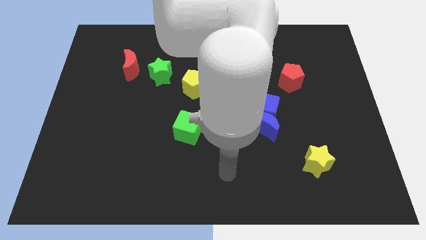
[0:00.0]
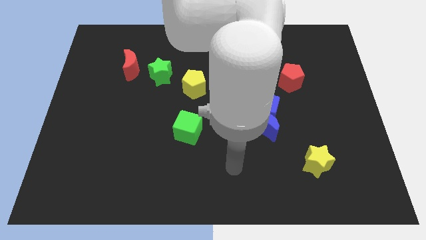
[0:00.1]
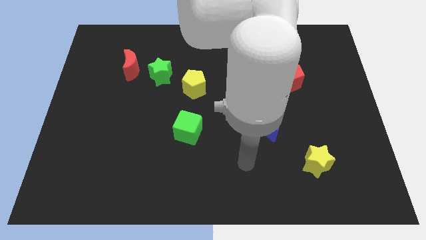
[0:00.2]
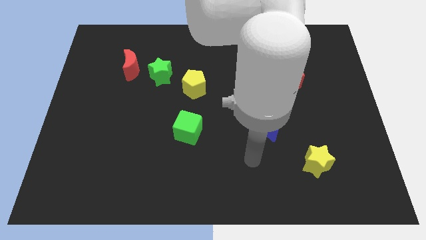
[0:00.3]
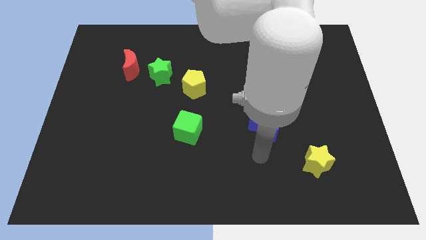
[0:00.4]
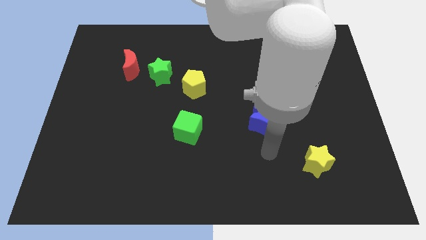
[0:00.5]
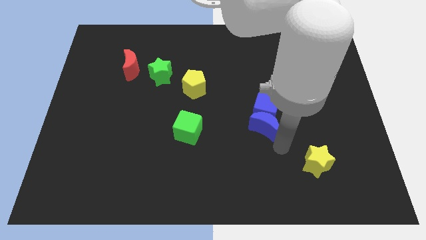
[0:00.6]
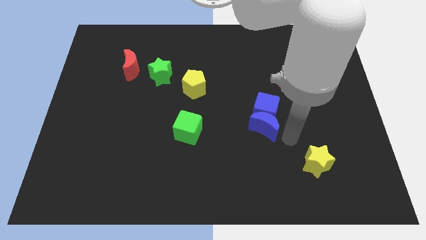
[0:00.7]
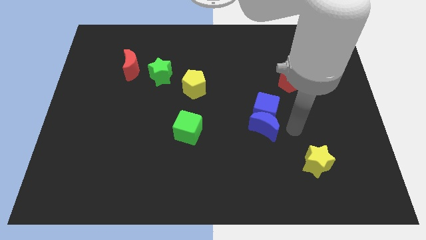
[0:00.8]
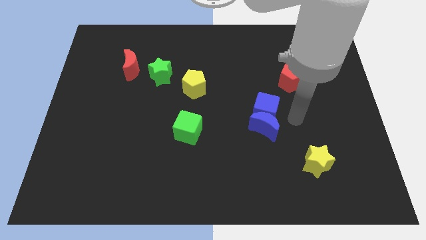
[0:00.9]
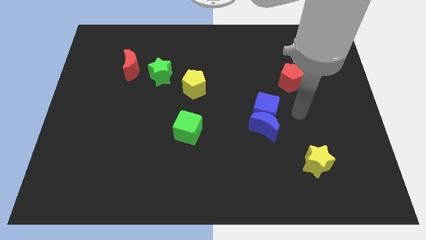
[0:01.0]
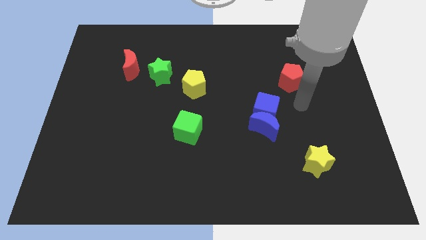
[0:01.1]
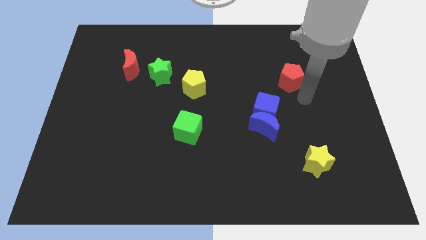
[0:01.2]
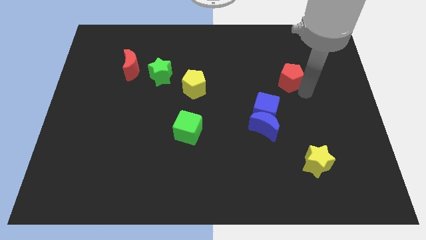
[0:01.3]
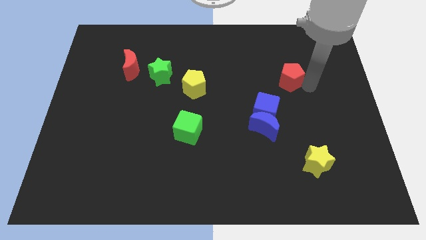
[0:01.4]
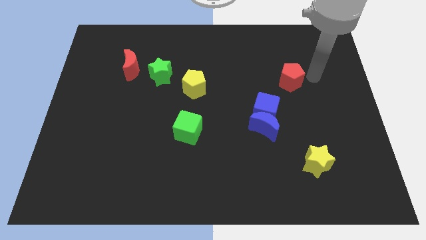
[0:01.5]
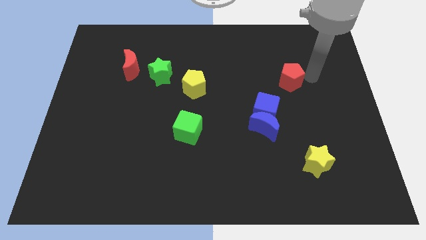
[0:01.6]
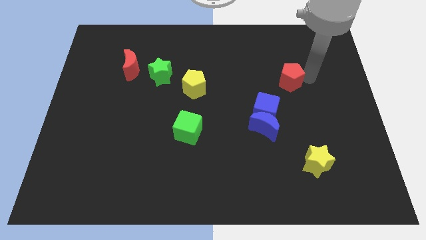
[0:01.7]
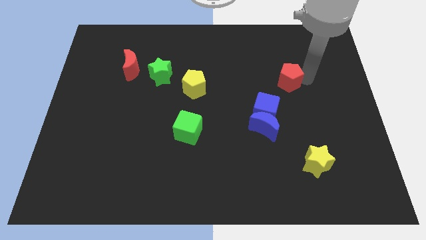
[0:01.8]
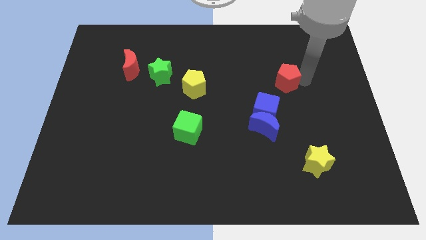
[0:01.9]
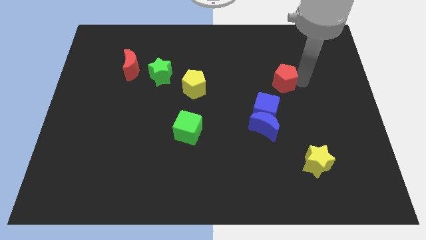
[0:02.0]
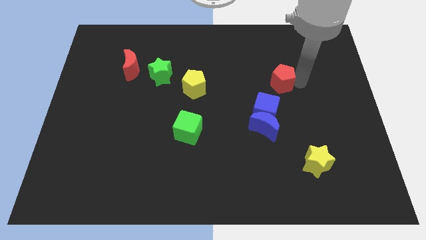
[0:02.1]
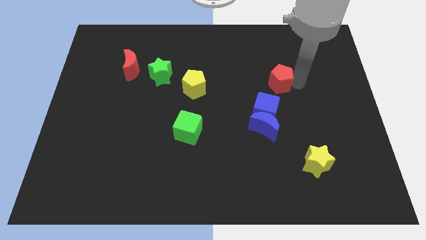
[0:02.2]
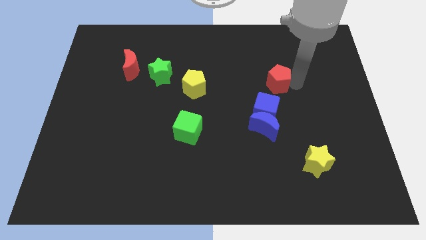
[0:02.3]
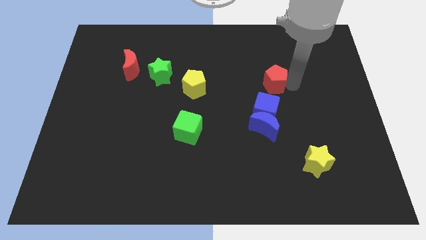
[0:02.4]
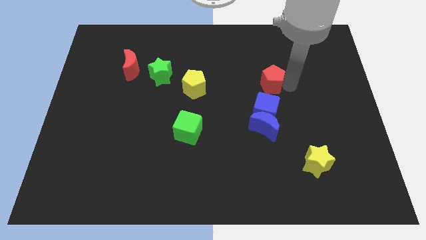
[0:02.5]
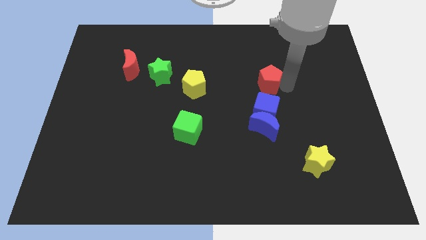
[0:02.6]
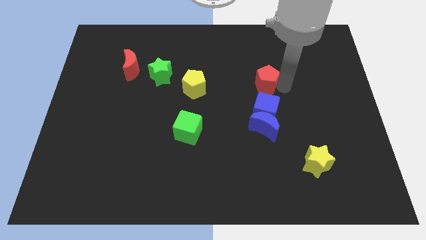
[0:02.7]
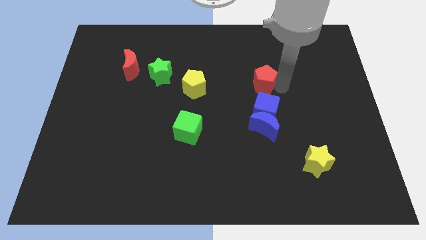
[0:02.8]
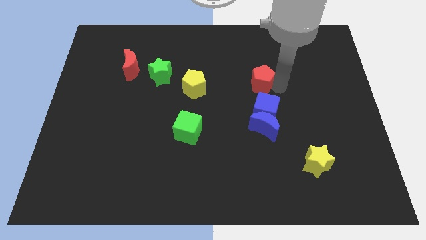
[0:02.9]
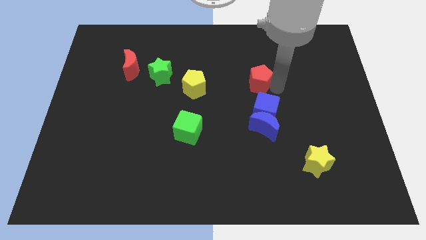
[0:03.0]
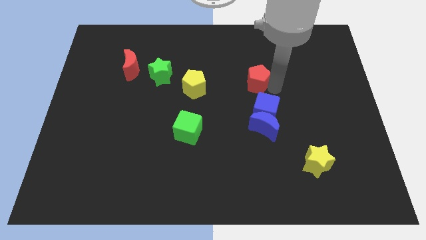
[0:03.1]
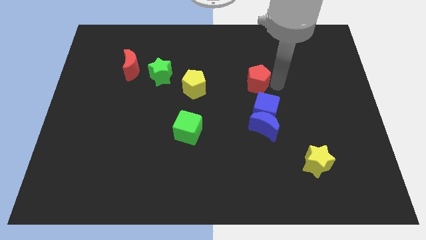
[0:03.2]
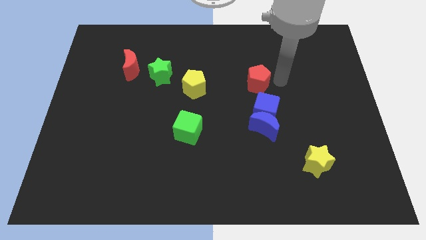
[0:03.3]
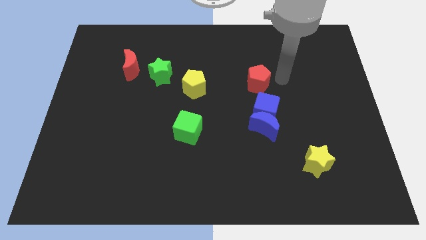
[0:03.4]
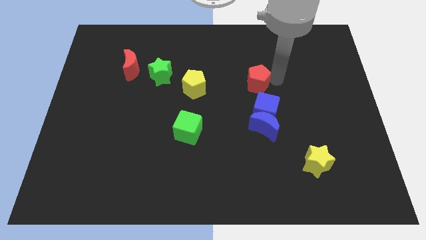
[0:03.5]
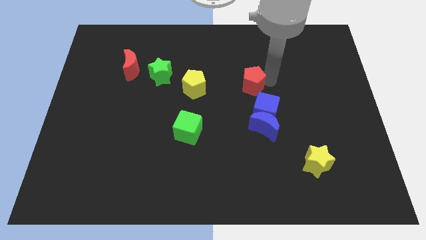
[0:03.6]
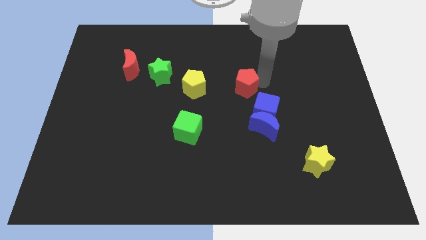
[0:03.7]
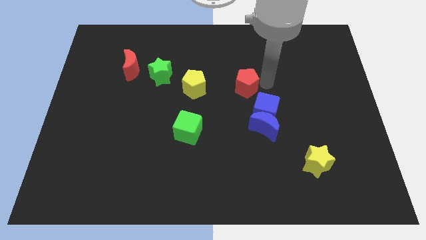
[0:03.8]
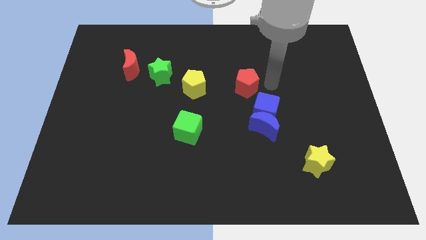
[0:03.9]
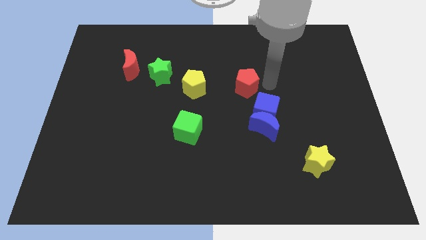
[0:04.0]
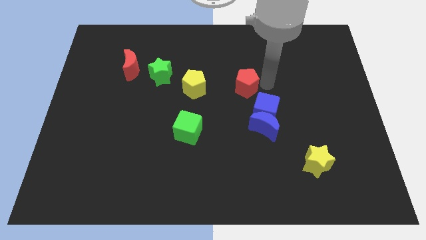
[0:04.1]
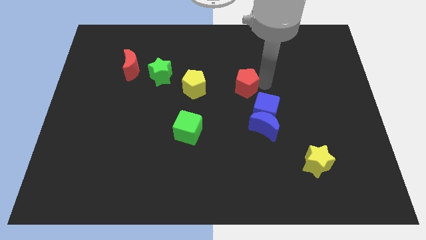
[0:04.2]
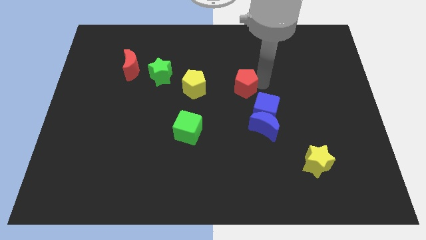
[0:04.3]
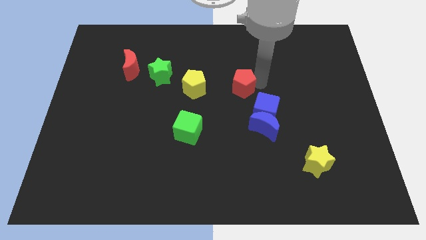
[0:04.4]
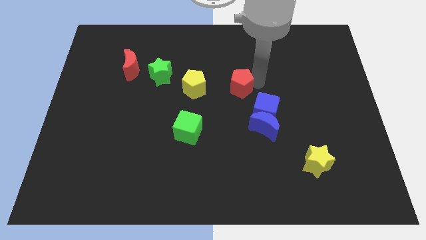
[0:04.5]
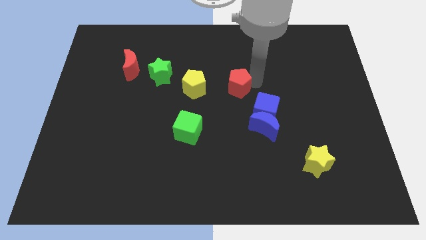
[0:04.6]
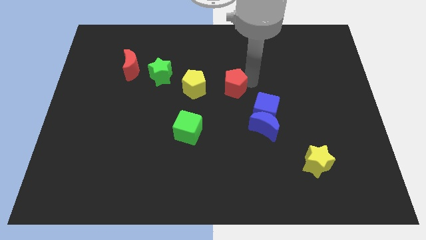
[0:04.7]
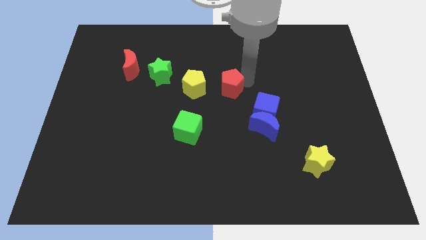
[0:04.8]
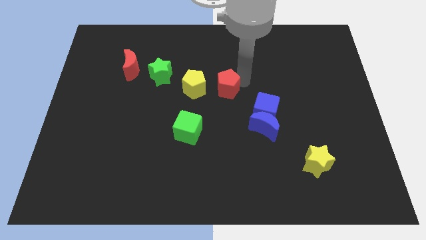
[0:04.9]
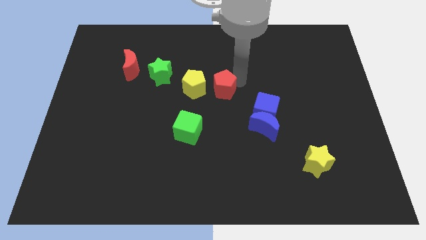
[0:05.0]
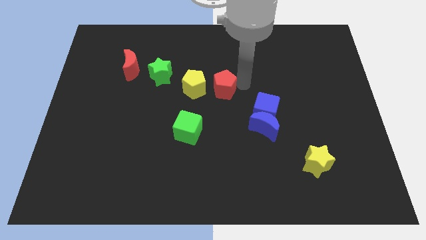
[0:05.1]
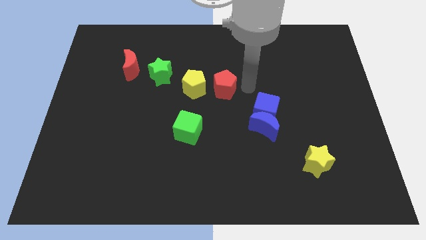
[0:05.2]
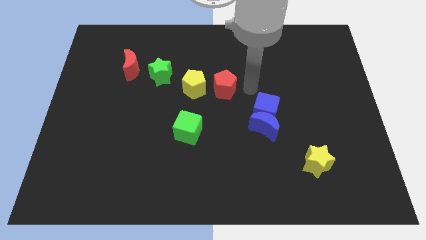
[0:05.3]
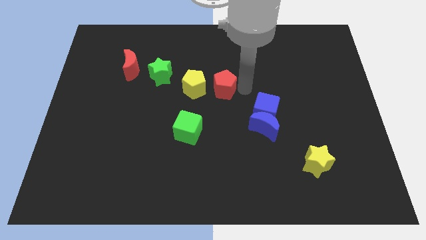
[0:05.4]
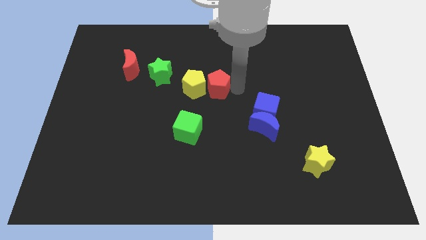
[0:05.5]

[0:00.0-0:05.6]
move the red pentagon next to the yellow pentagon

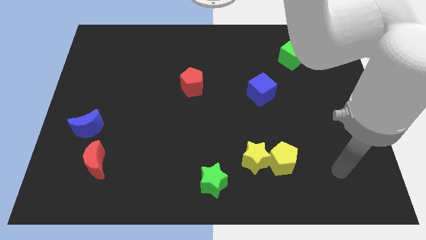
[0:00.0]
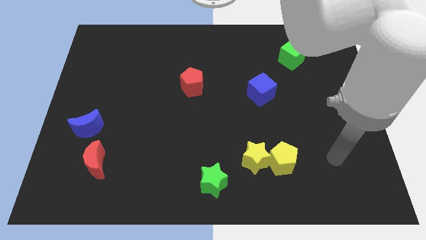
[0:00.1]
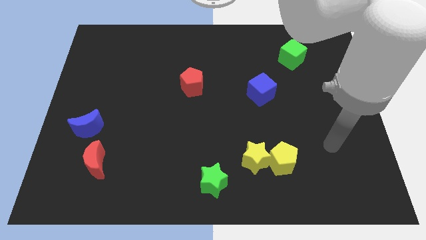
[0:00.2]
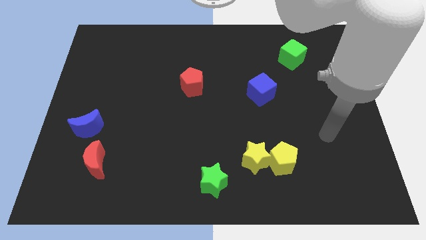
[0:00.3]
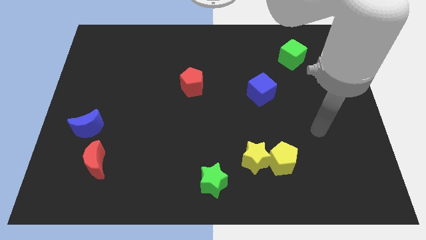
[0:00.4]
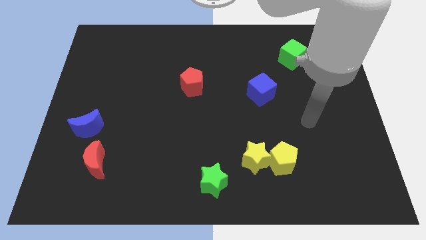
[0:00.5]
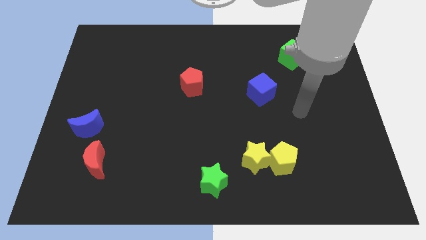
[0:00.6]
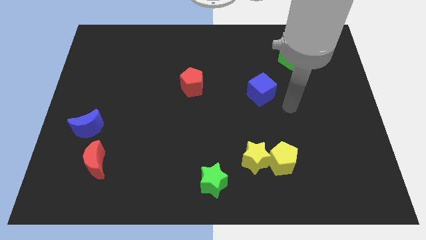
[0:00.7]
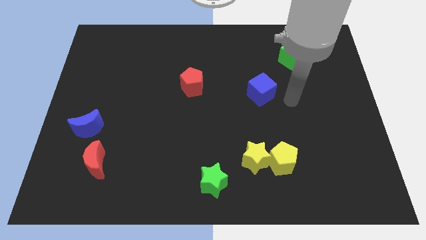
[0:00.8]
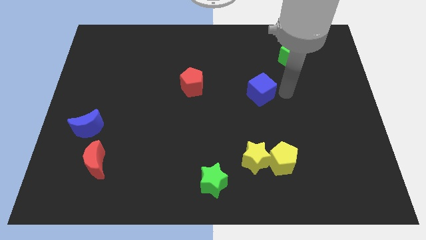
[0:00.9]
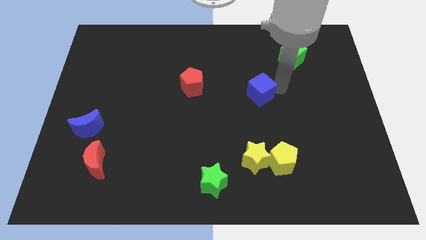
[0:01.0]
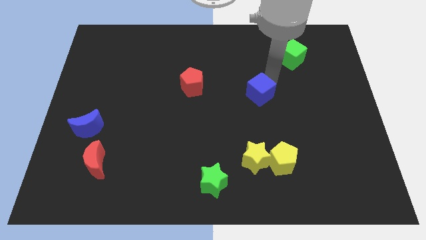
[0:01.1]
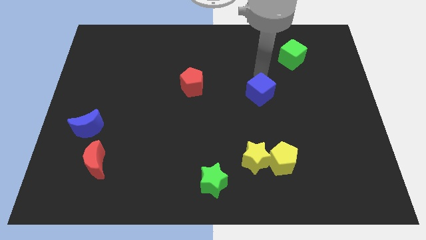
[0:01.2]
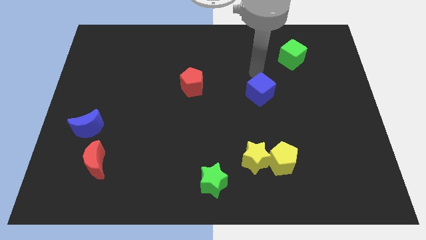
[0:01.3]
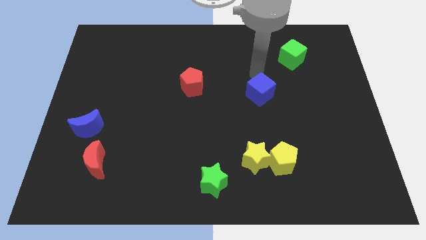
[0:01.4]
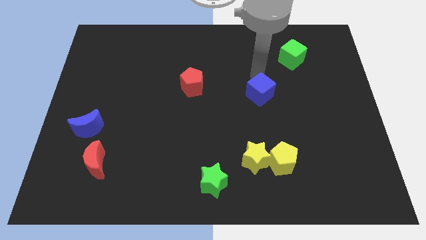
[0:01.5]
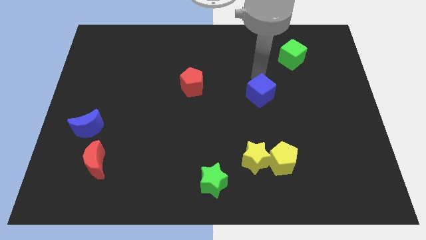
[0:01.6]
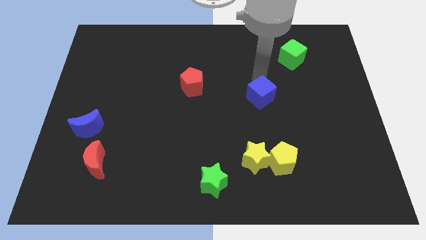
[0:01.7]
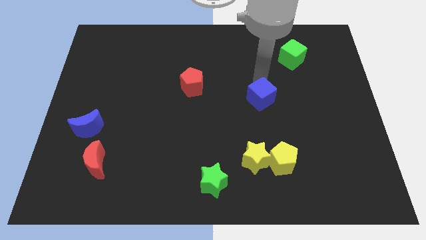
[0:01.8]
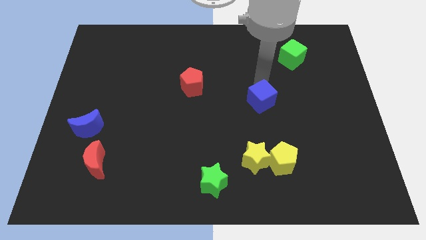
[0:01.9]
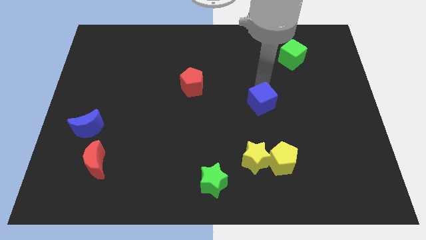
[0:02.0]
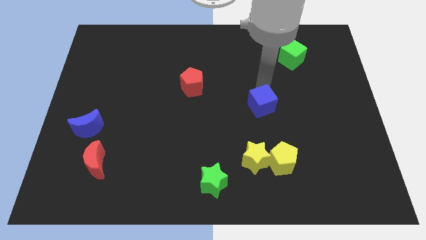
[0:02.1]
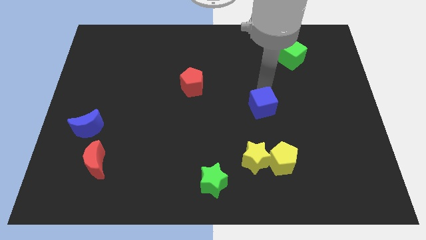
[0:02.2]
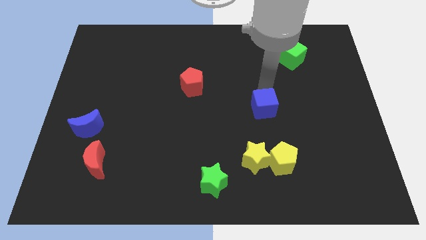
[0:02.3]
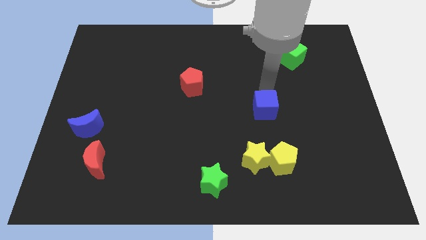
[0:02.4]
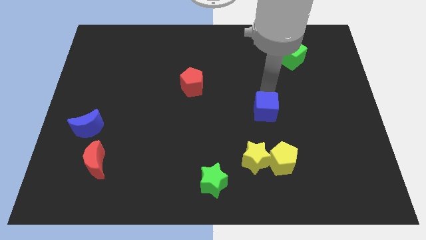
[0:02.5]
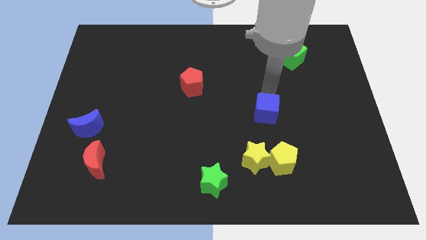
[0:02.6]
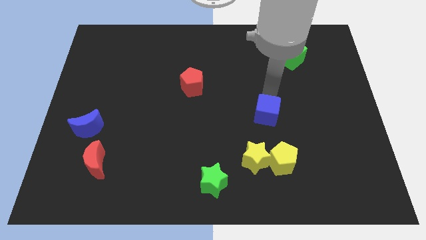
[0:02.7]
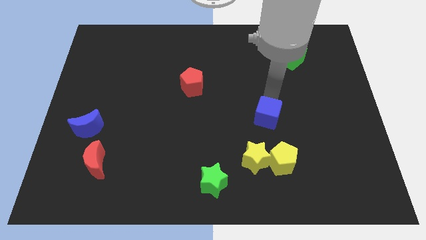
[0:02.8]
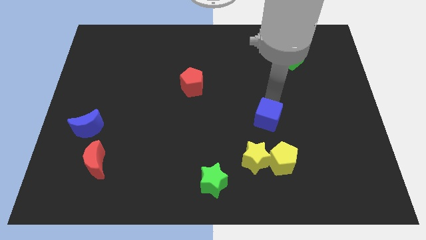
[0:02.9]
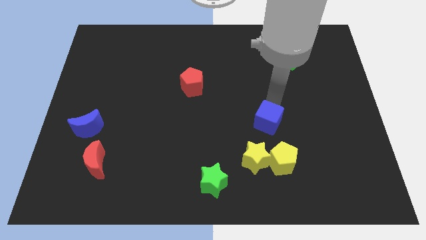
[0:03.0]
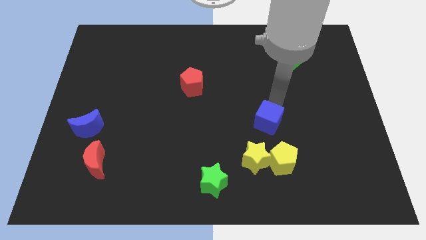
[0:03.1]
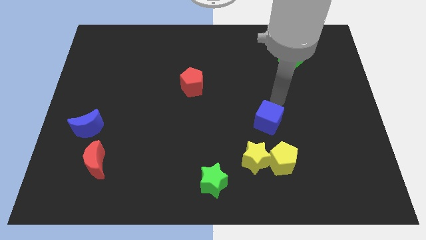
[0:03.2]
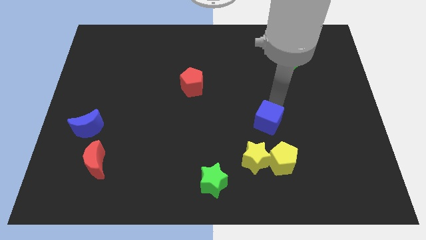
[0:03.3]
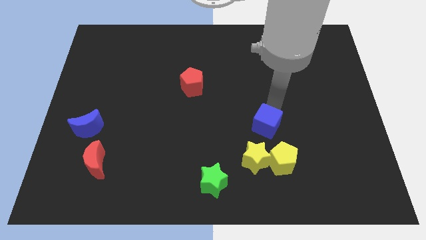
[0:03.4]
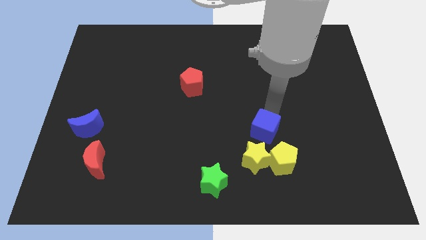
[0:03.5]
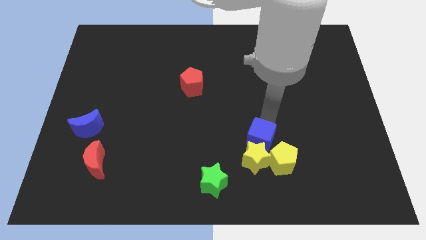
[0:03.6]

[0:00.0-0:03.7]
push the blue cube towards the yellow star
